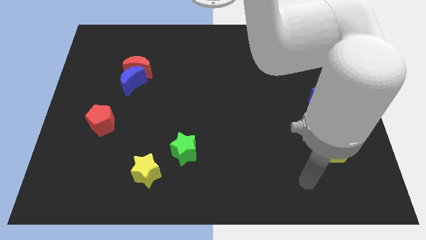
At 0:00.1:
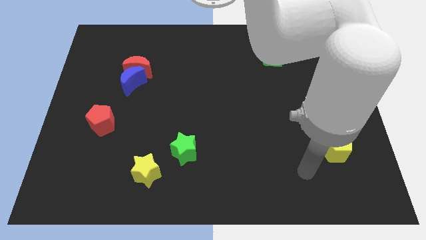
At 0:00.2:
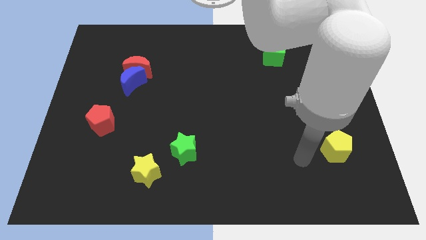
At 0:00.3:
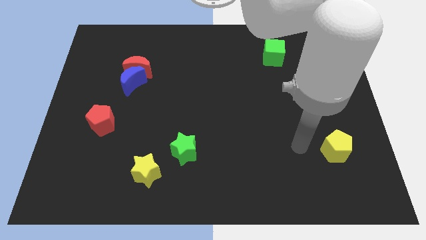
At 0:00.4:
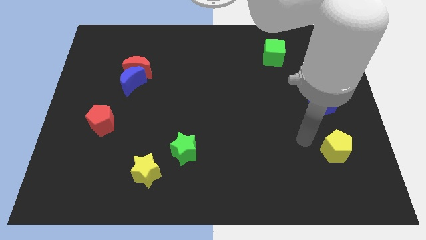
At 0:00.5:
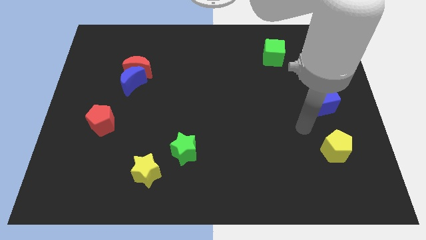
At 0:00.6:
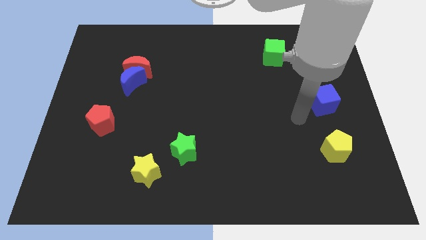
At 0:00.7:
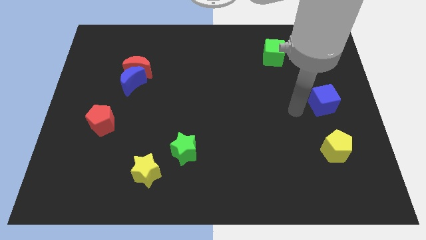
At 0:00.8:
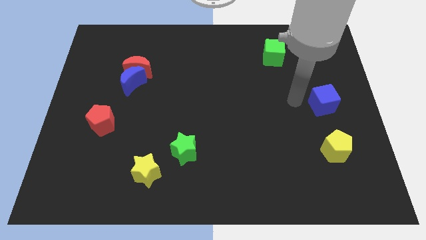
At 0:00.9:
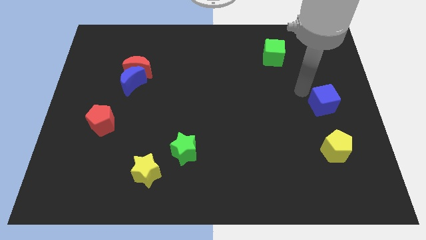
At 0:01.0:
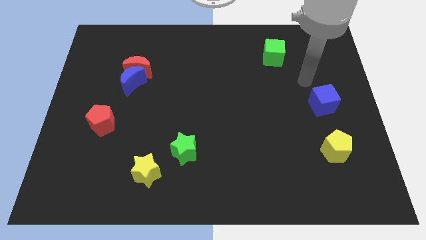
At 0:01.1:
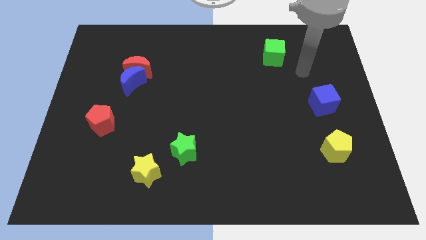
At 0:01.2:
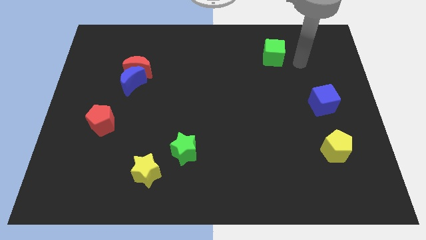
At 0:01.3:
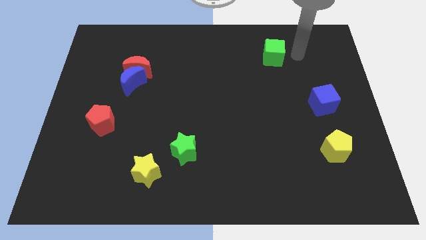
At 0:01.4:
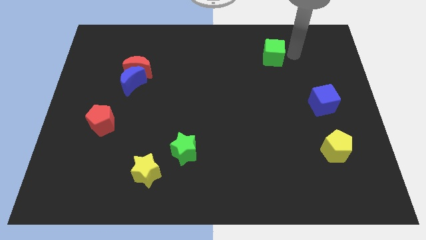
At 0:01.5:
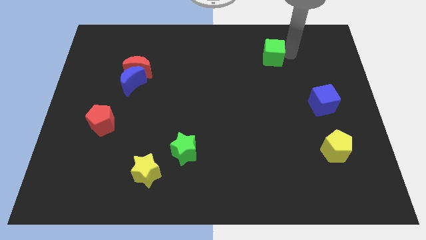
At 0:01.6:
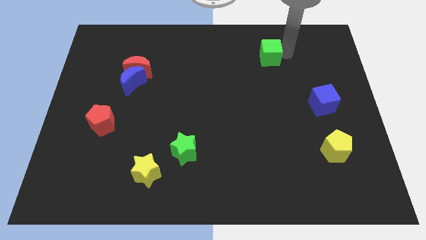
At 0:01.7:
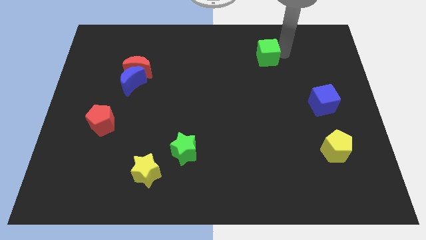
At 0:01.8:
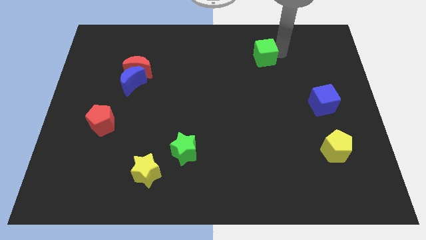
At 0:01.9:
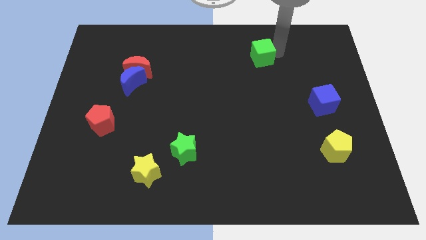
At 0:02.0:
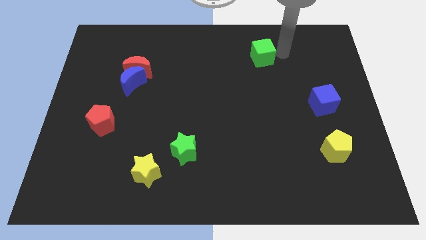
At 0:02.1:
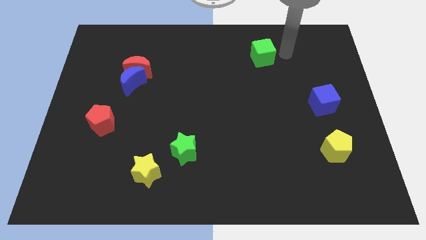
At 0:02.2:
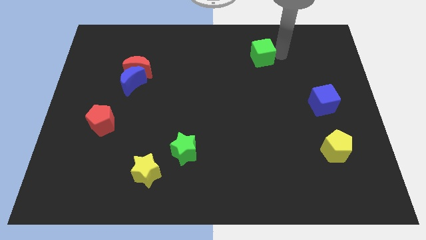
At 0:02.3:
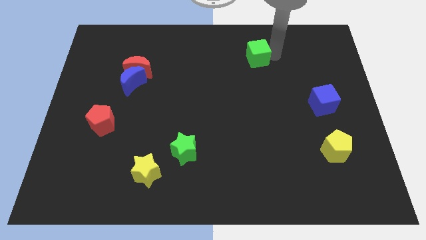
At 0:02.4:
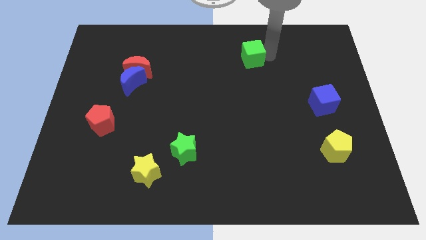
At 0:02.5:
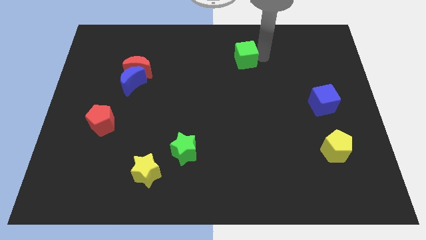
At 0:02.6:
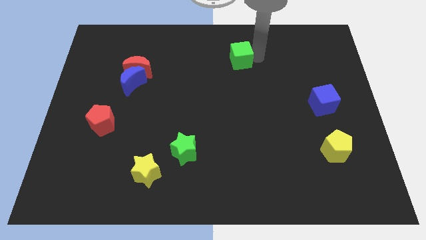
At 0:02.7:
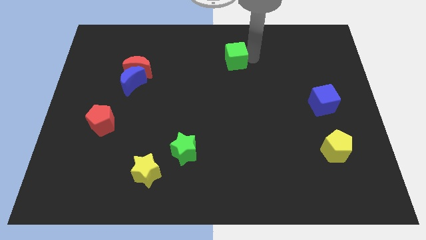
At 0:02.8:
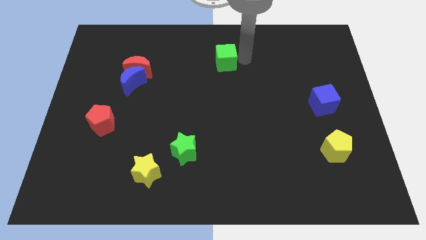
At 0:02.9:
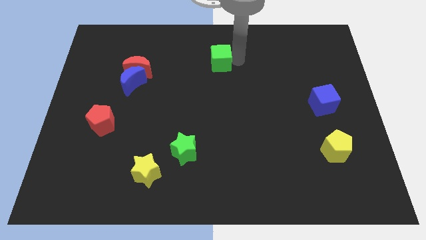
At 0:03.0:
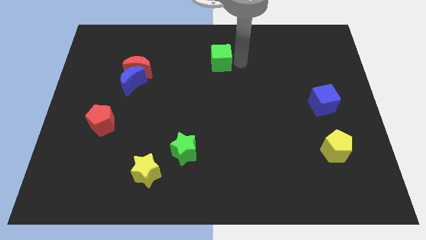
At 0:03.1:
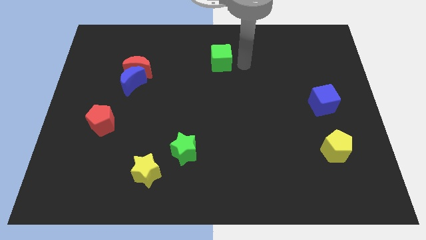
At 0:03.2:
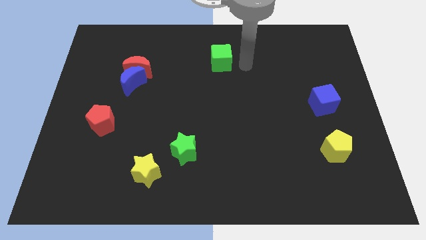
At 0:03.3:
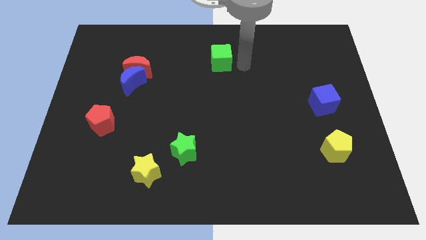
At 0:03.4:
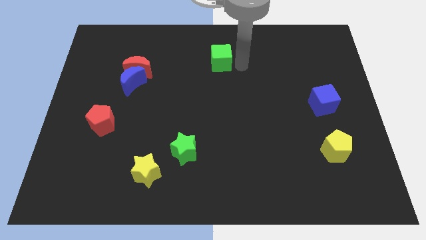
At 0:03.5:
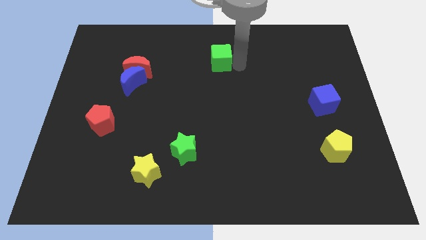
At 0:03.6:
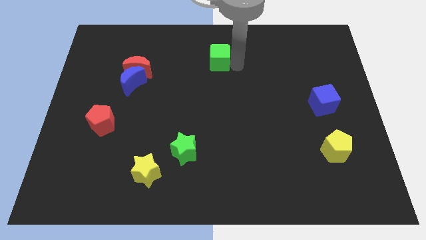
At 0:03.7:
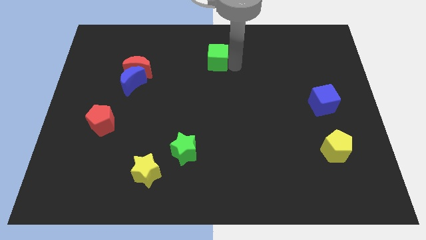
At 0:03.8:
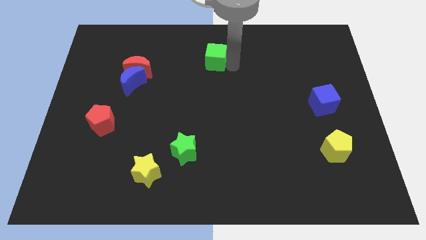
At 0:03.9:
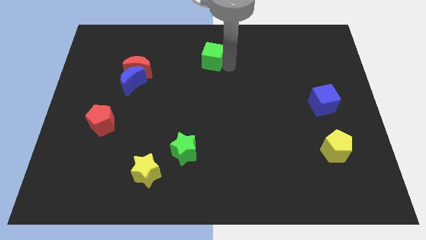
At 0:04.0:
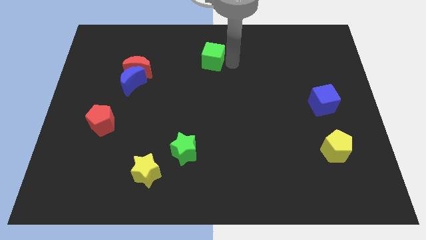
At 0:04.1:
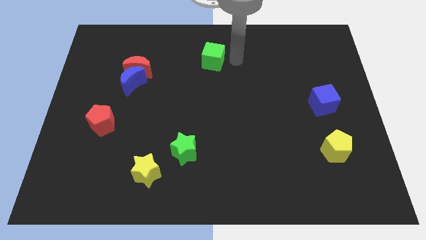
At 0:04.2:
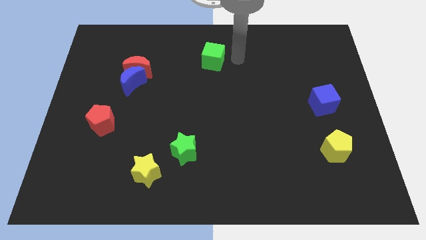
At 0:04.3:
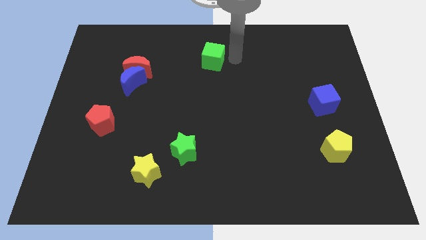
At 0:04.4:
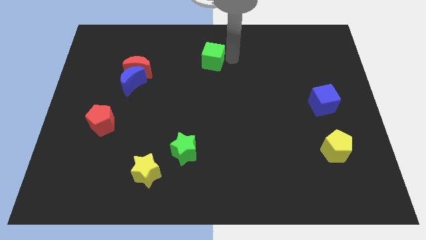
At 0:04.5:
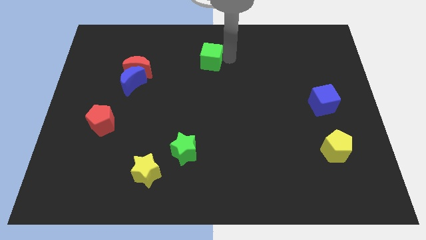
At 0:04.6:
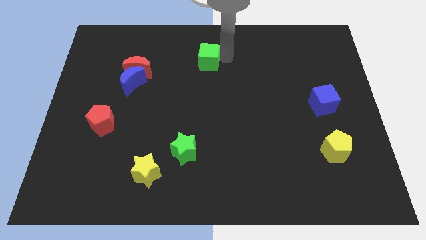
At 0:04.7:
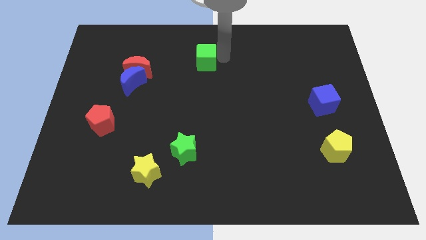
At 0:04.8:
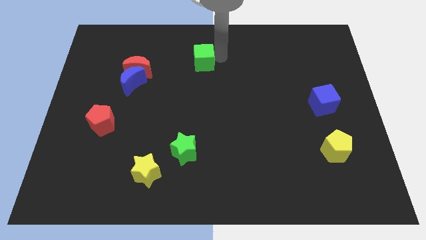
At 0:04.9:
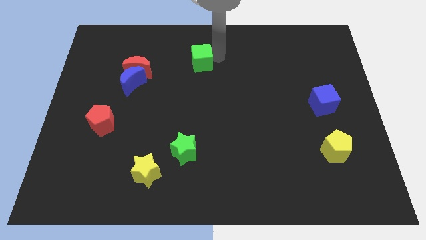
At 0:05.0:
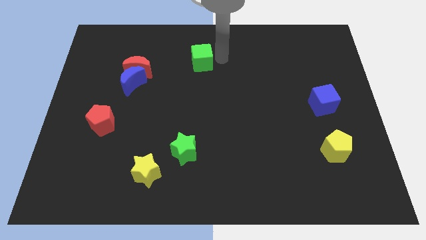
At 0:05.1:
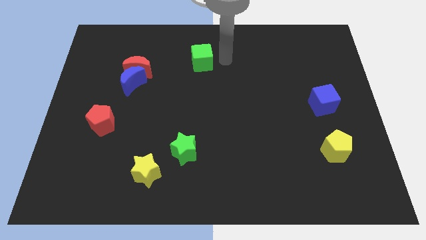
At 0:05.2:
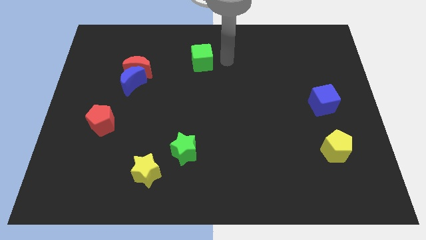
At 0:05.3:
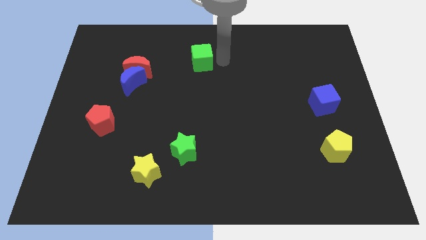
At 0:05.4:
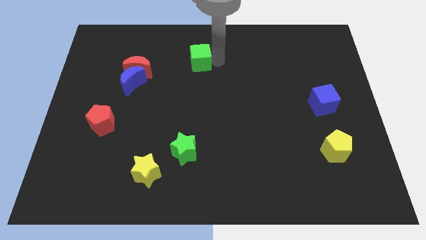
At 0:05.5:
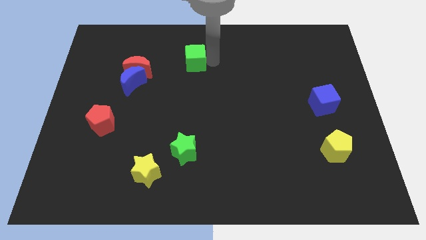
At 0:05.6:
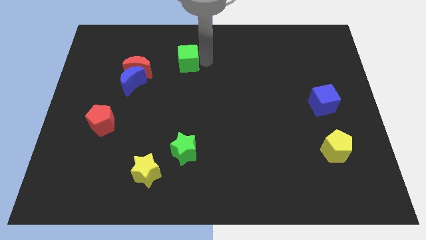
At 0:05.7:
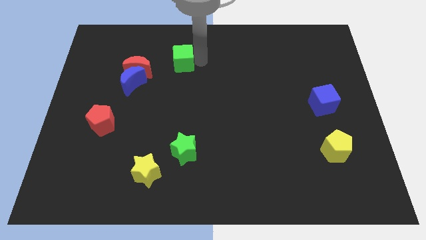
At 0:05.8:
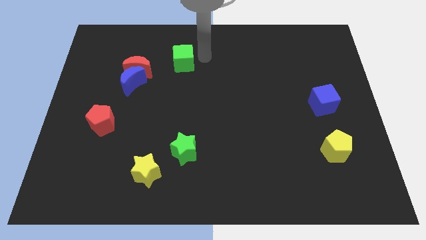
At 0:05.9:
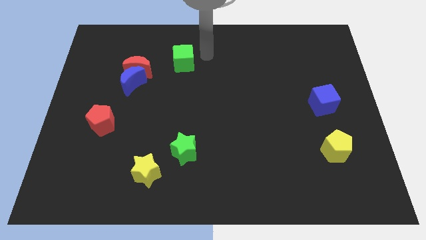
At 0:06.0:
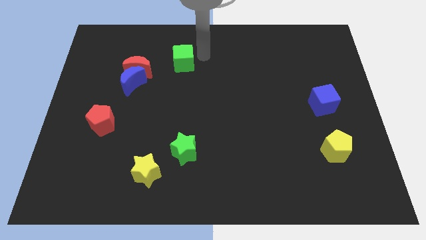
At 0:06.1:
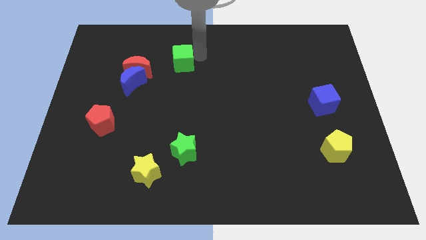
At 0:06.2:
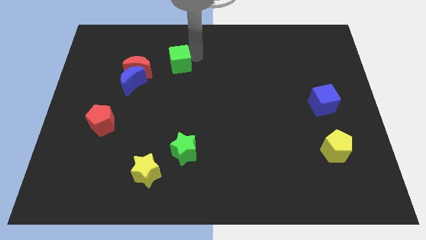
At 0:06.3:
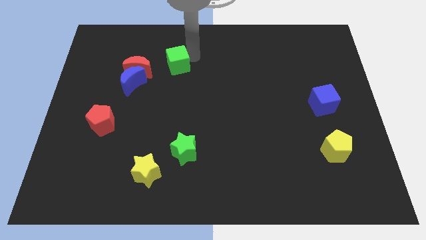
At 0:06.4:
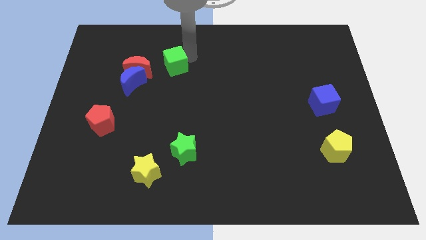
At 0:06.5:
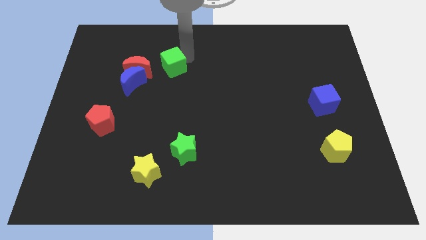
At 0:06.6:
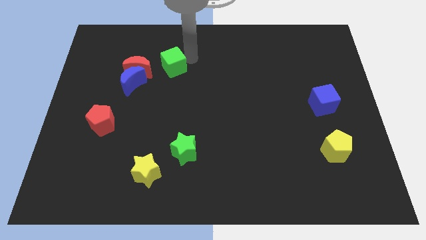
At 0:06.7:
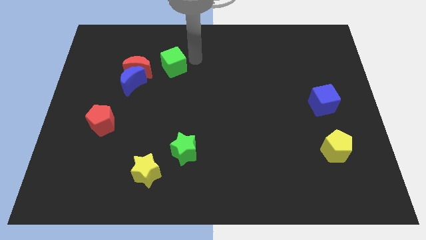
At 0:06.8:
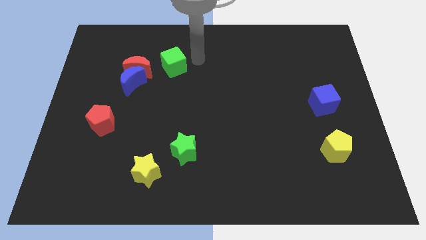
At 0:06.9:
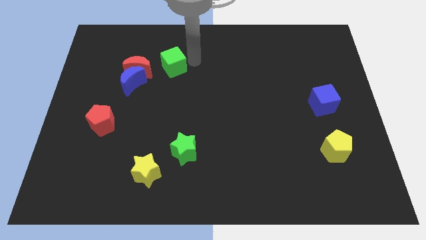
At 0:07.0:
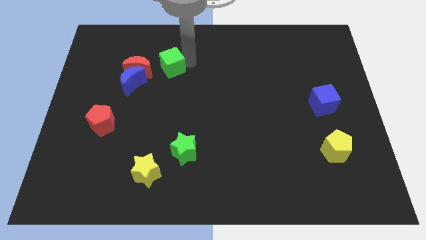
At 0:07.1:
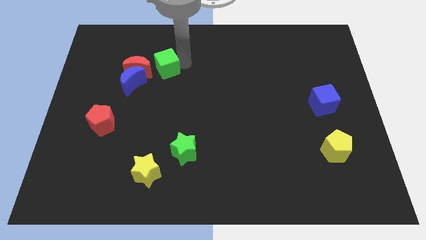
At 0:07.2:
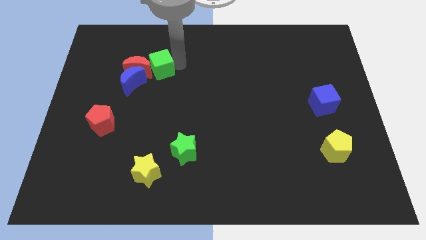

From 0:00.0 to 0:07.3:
slide the green cube to the red moon

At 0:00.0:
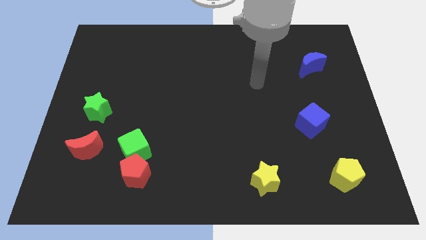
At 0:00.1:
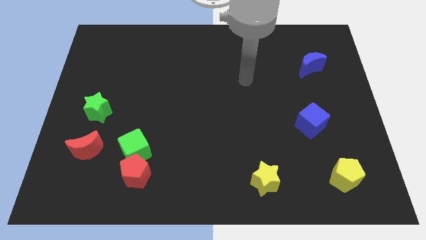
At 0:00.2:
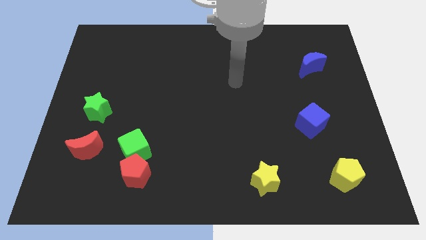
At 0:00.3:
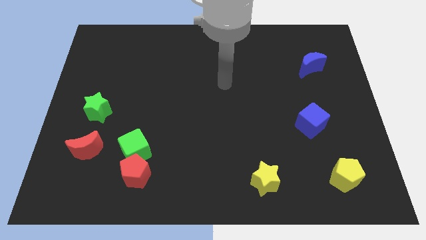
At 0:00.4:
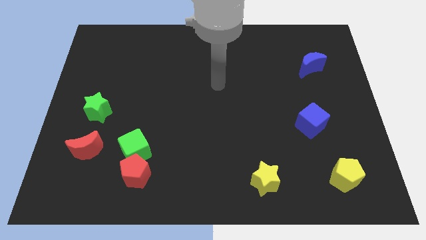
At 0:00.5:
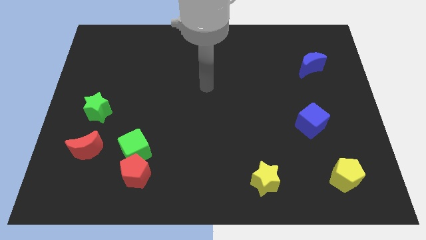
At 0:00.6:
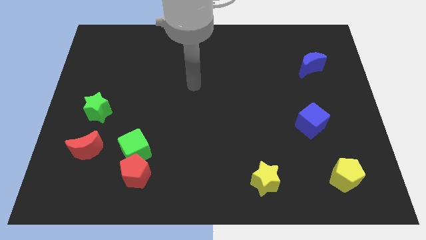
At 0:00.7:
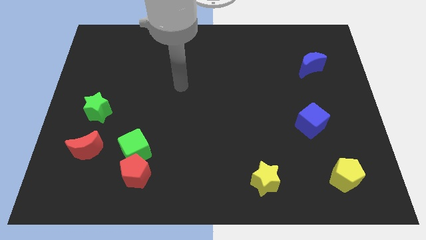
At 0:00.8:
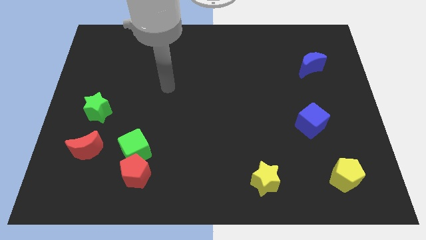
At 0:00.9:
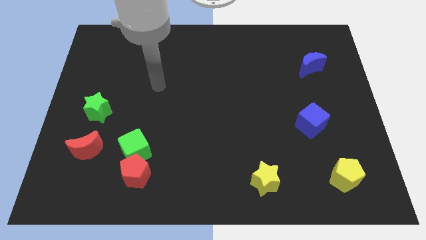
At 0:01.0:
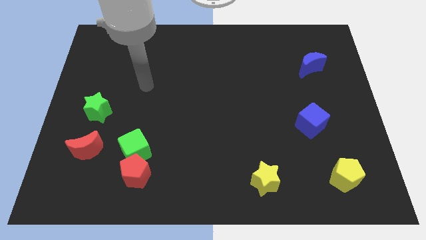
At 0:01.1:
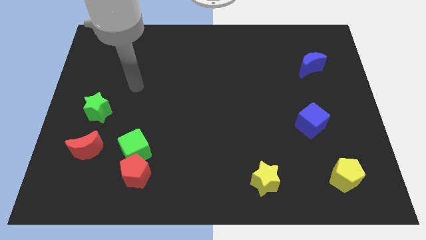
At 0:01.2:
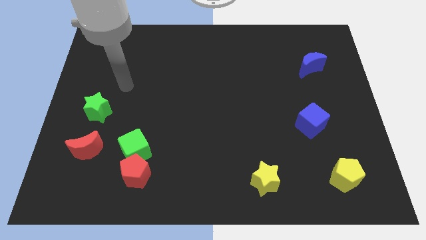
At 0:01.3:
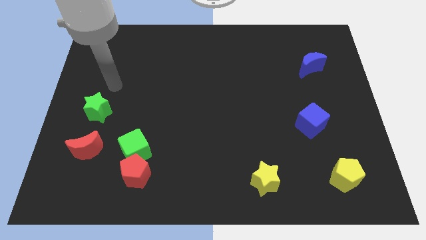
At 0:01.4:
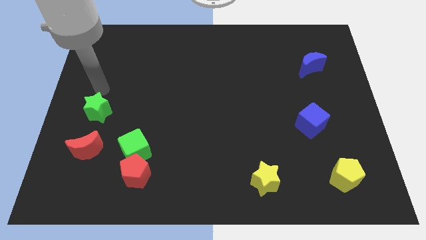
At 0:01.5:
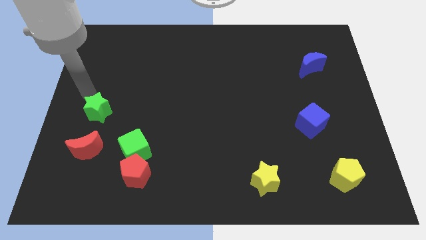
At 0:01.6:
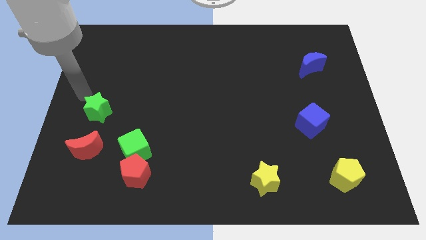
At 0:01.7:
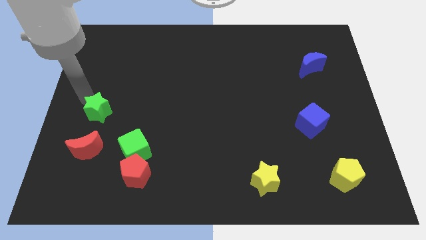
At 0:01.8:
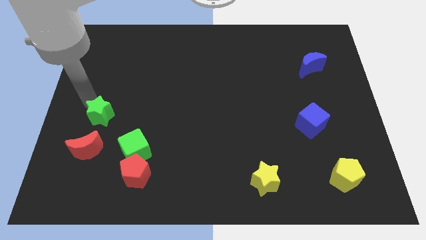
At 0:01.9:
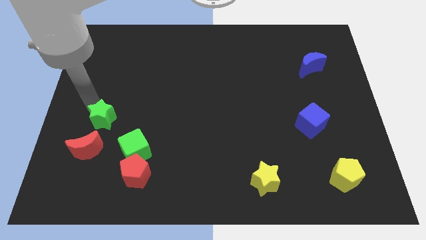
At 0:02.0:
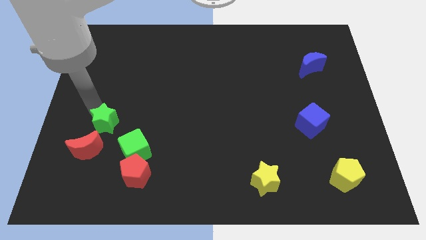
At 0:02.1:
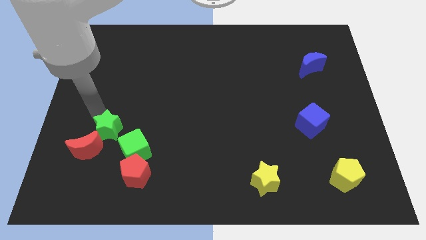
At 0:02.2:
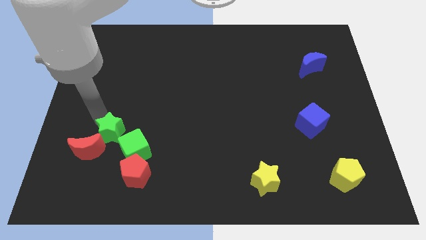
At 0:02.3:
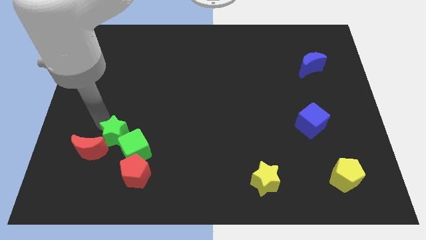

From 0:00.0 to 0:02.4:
push the green star close to the green cube
